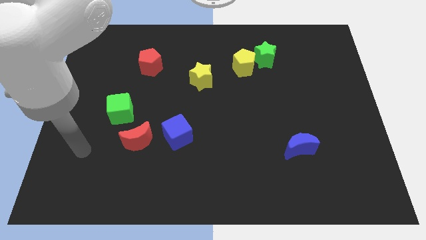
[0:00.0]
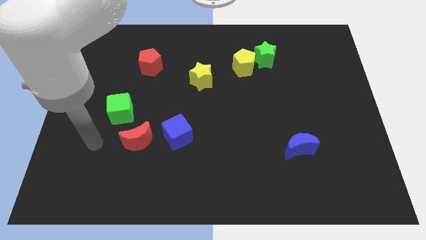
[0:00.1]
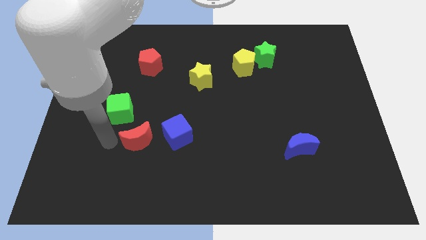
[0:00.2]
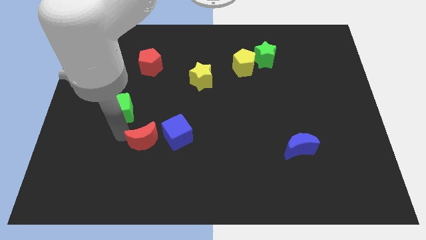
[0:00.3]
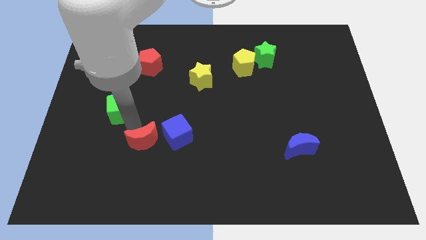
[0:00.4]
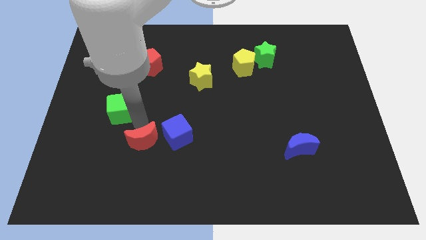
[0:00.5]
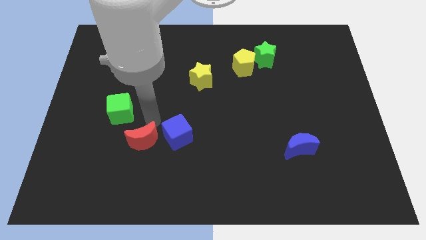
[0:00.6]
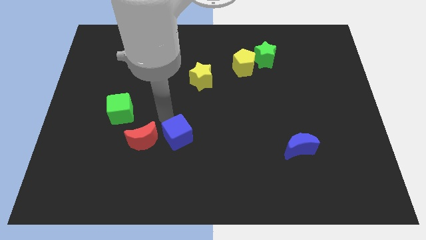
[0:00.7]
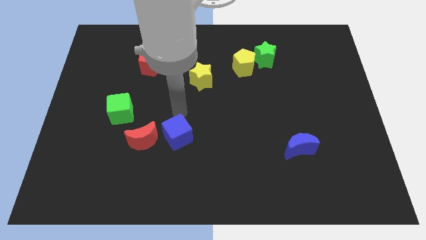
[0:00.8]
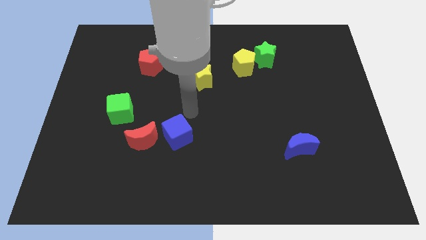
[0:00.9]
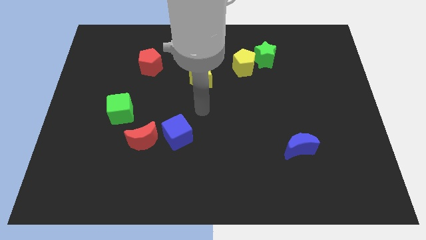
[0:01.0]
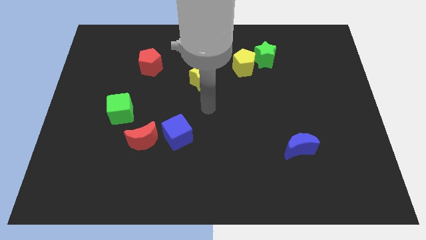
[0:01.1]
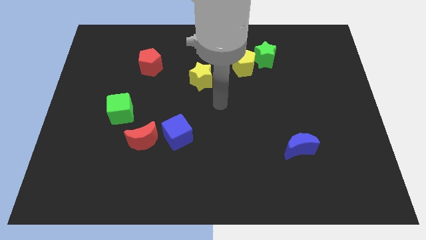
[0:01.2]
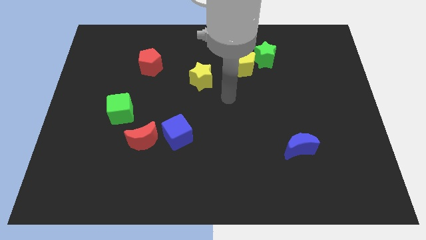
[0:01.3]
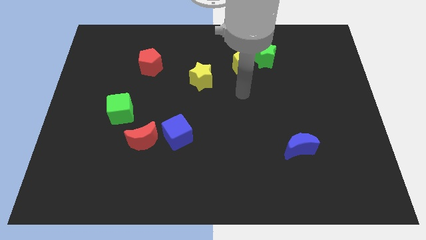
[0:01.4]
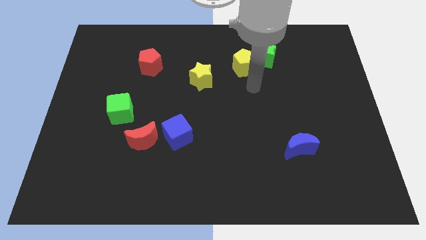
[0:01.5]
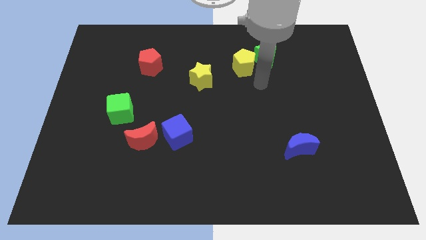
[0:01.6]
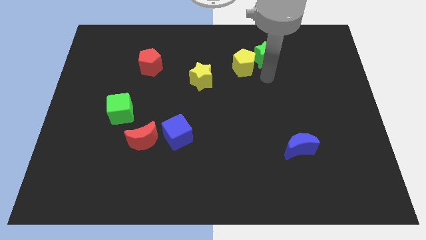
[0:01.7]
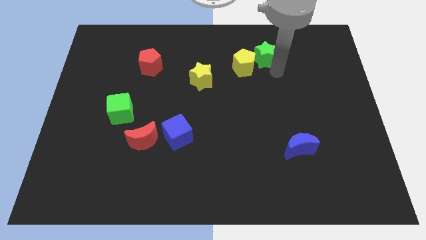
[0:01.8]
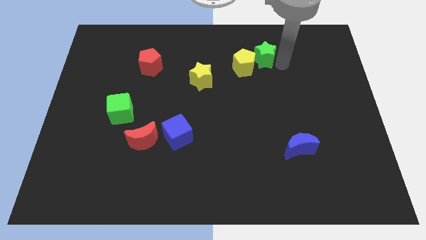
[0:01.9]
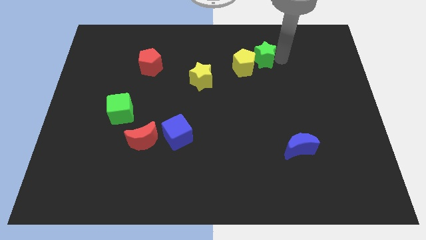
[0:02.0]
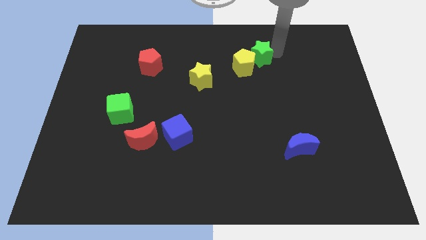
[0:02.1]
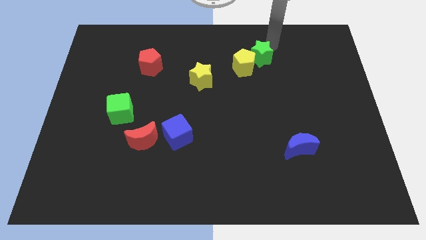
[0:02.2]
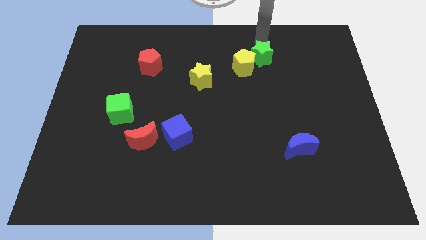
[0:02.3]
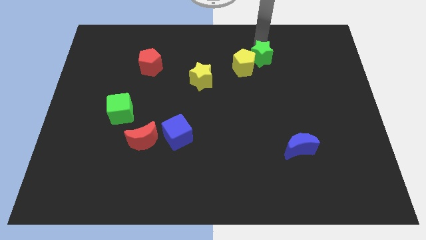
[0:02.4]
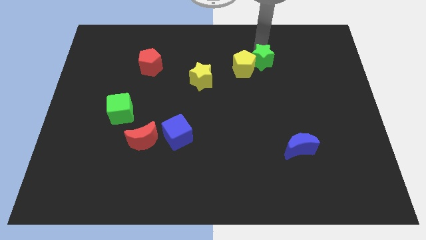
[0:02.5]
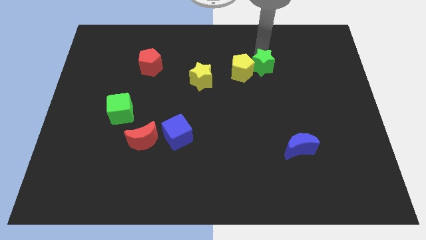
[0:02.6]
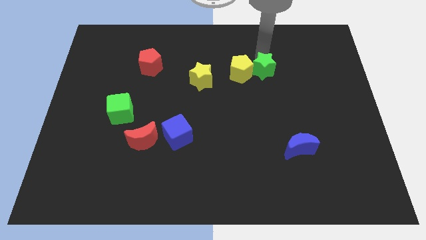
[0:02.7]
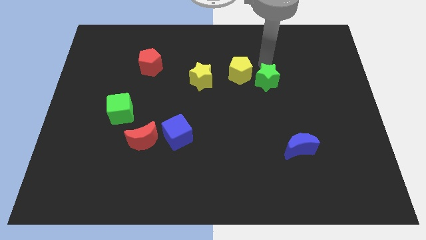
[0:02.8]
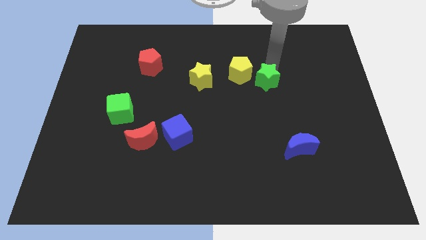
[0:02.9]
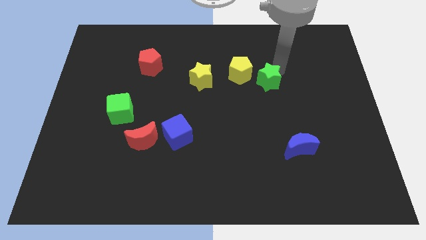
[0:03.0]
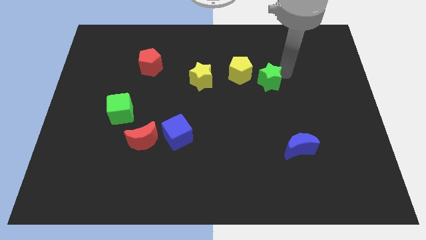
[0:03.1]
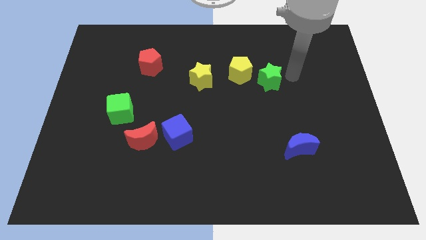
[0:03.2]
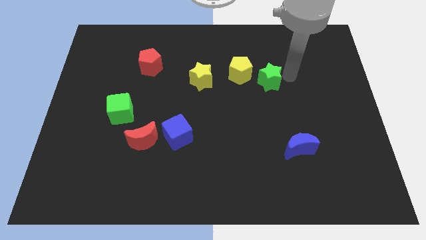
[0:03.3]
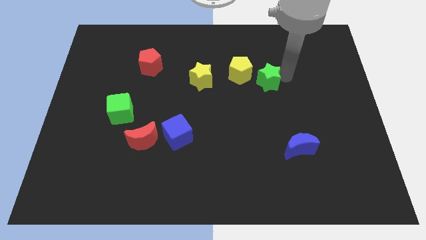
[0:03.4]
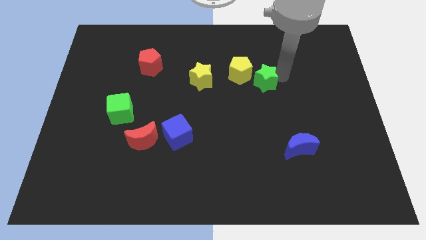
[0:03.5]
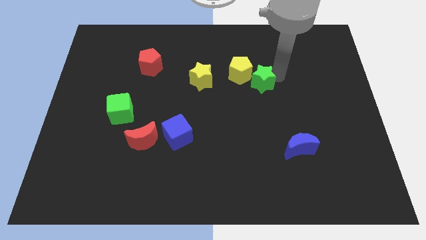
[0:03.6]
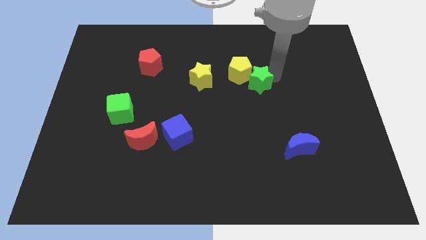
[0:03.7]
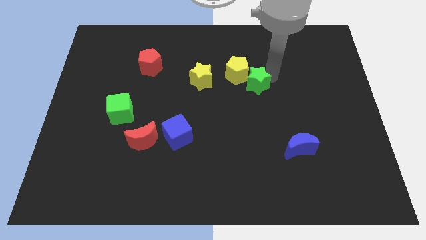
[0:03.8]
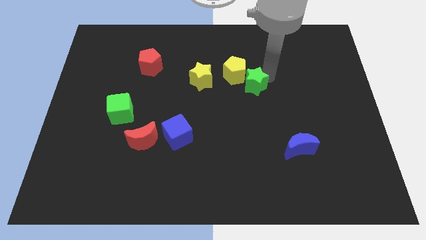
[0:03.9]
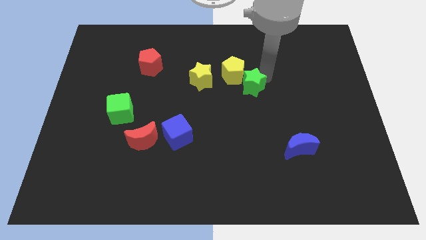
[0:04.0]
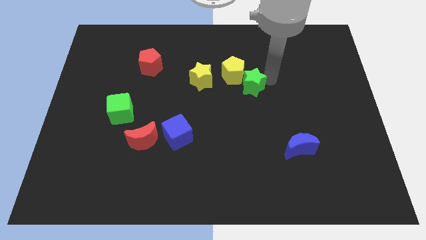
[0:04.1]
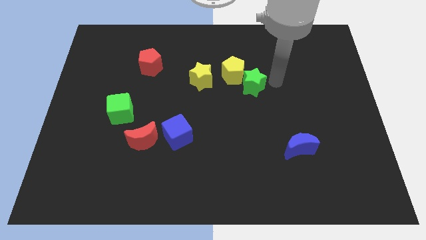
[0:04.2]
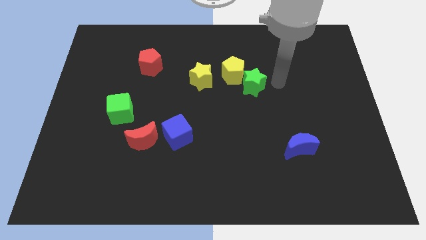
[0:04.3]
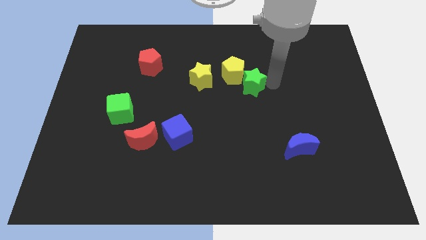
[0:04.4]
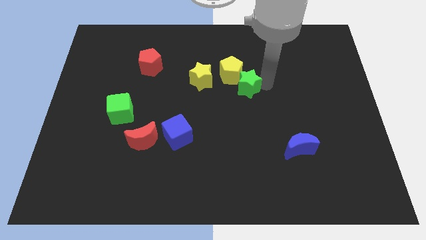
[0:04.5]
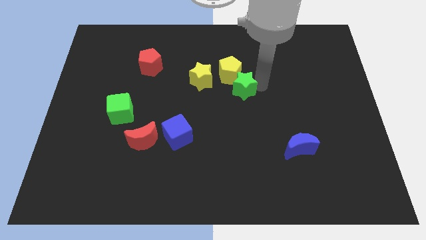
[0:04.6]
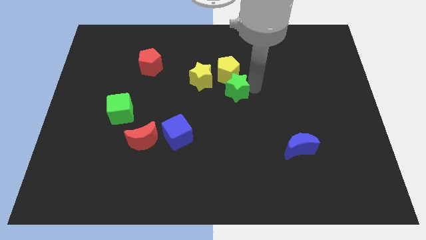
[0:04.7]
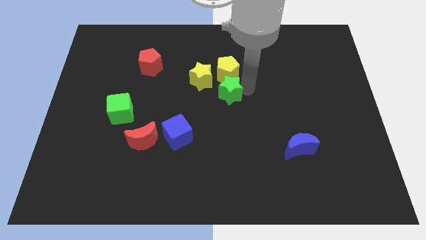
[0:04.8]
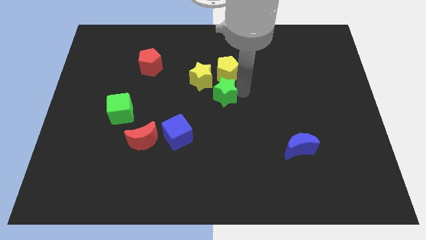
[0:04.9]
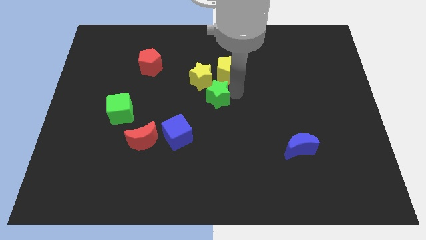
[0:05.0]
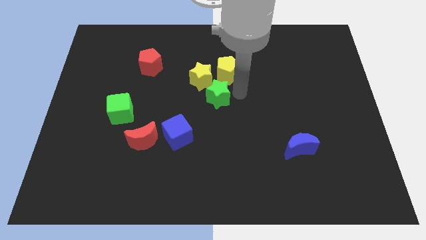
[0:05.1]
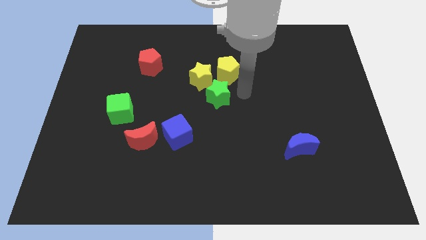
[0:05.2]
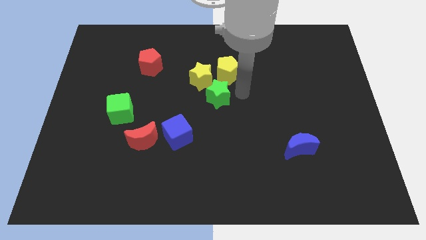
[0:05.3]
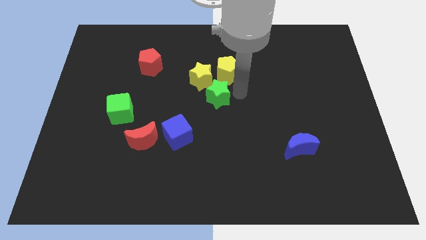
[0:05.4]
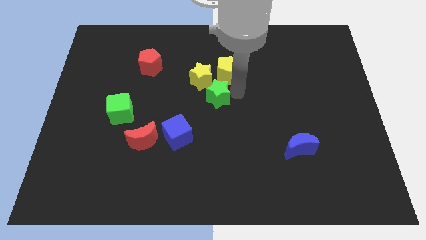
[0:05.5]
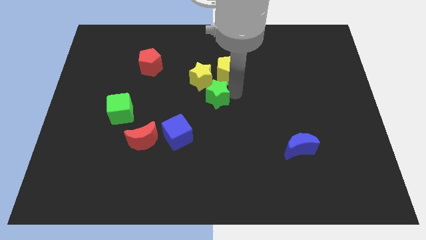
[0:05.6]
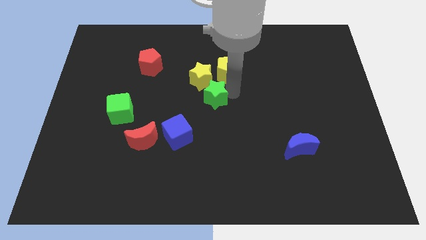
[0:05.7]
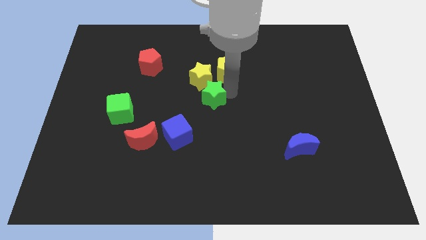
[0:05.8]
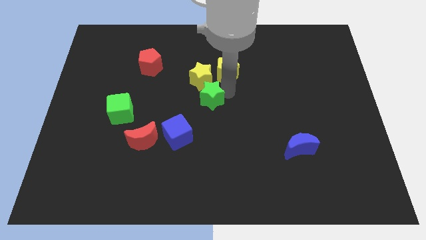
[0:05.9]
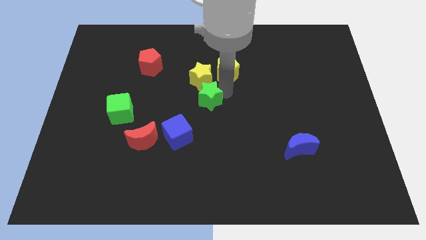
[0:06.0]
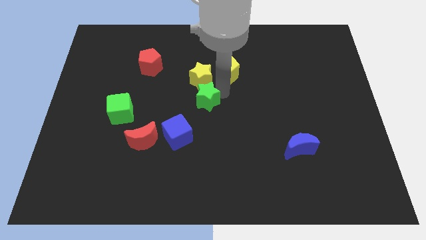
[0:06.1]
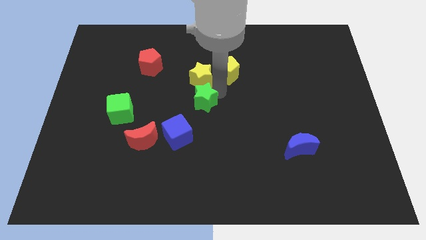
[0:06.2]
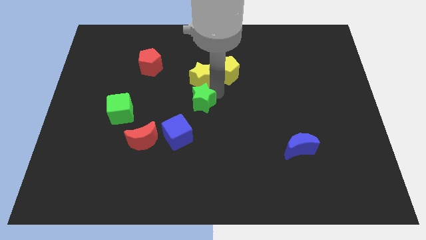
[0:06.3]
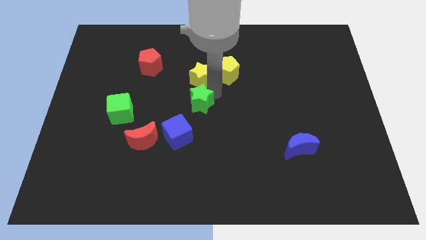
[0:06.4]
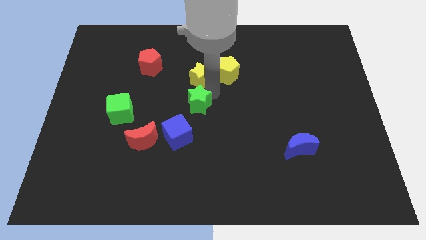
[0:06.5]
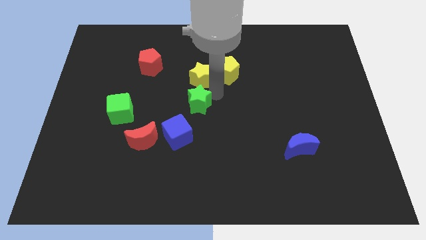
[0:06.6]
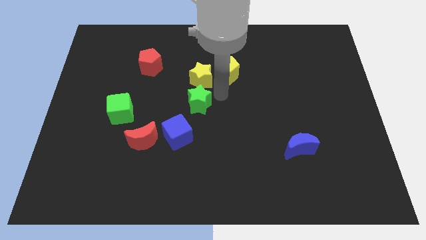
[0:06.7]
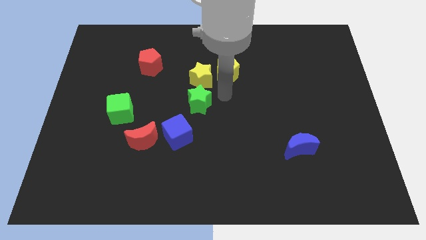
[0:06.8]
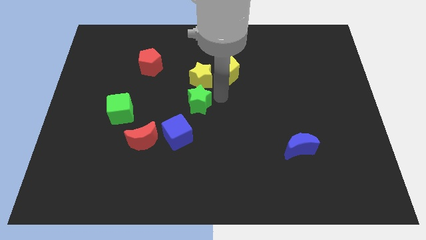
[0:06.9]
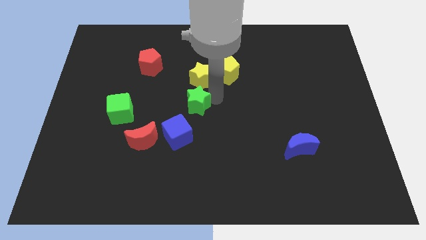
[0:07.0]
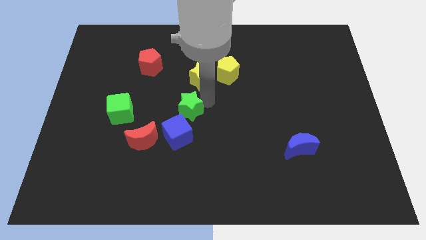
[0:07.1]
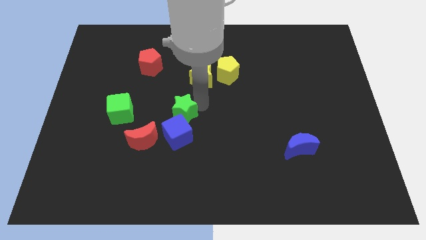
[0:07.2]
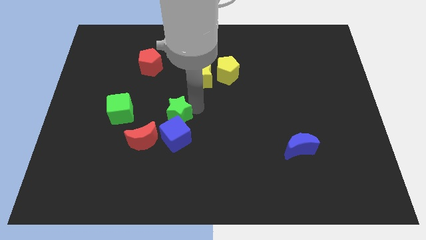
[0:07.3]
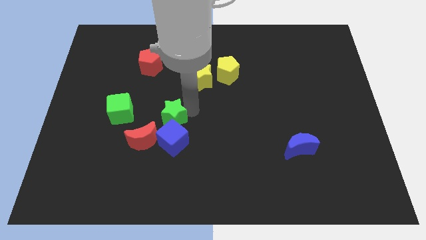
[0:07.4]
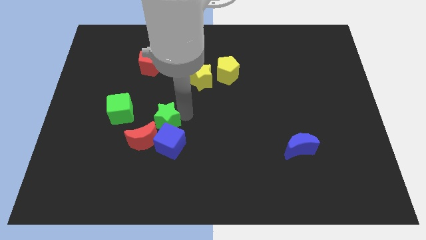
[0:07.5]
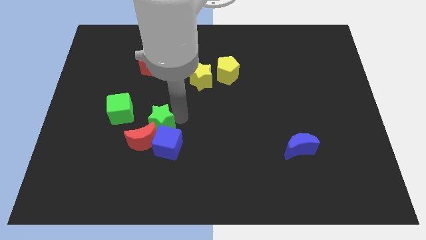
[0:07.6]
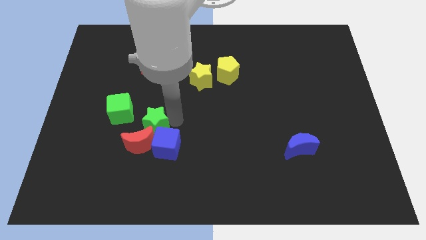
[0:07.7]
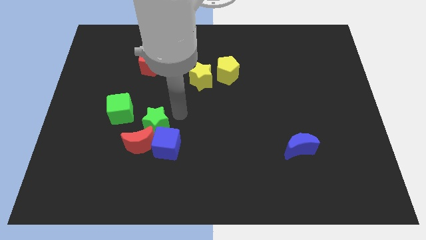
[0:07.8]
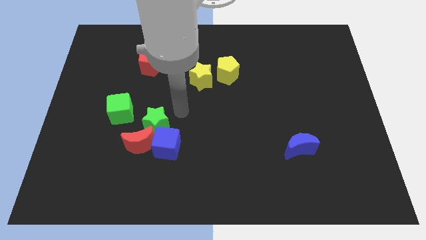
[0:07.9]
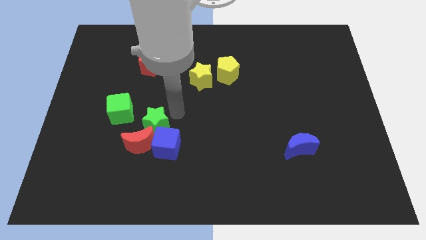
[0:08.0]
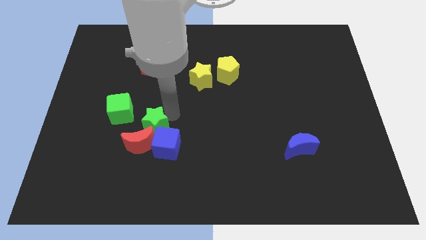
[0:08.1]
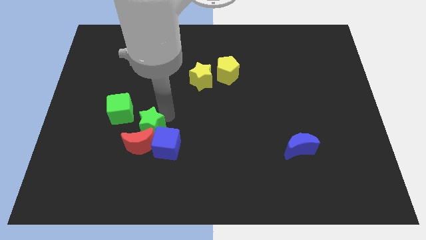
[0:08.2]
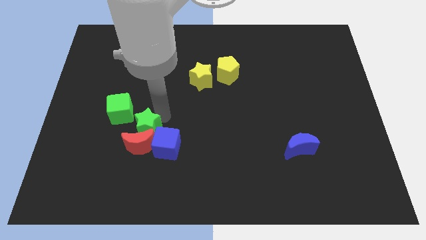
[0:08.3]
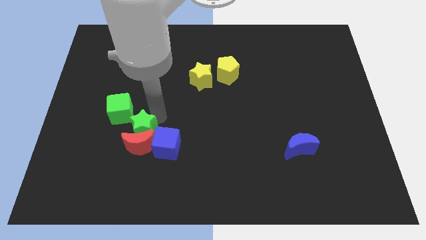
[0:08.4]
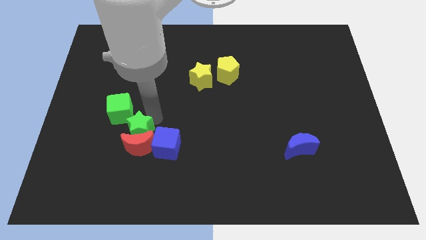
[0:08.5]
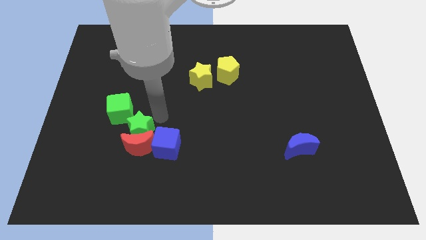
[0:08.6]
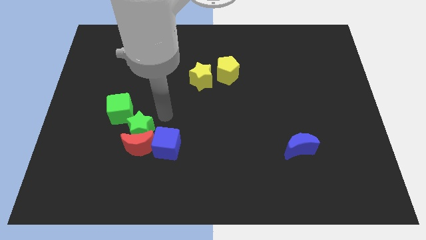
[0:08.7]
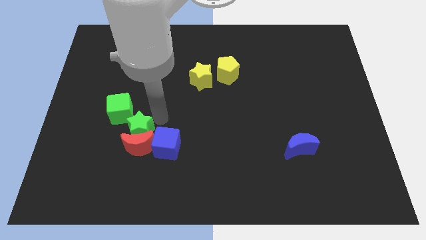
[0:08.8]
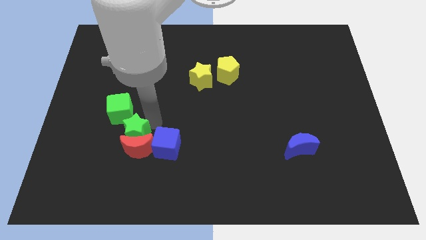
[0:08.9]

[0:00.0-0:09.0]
slide the green star to the bottom of the green cube
